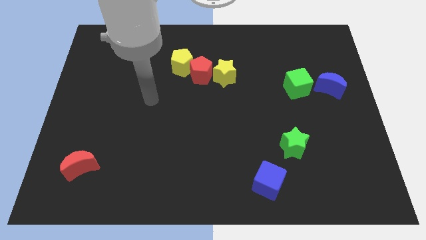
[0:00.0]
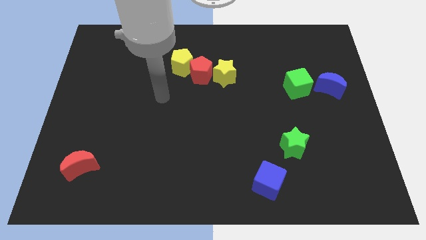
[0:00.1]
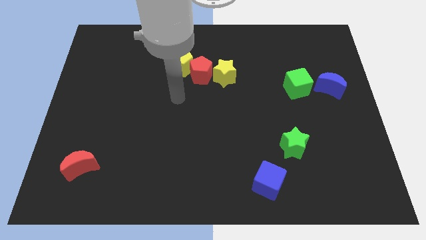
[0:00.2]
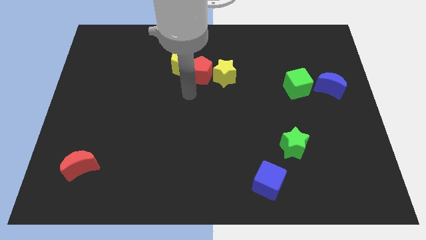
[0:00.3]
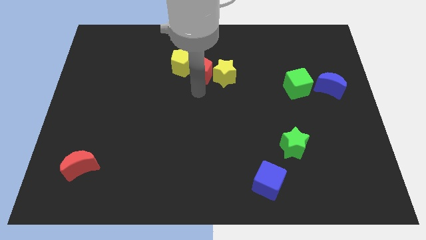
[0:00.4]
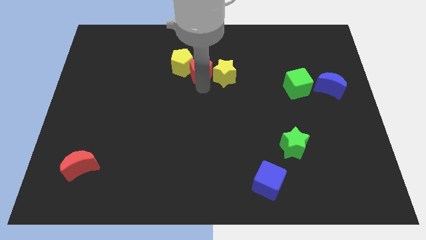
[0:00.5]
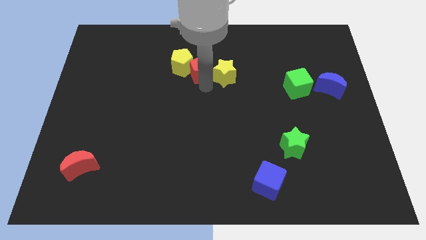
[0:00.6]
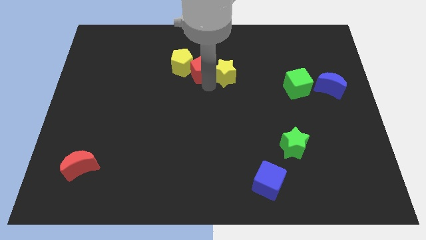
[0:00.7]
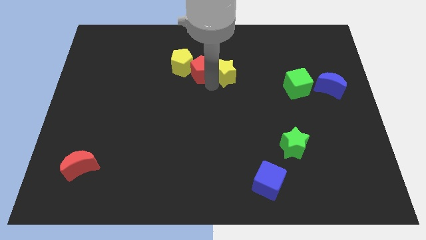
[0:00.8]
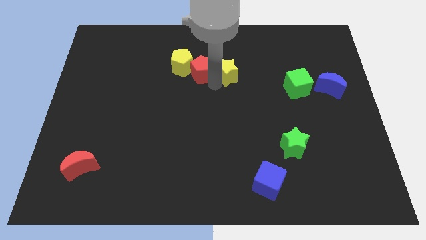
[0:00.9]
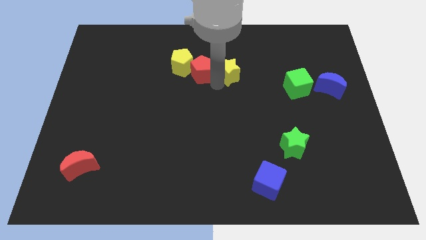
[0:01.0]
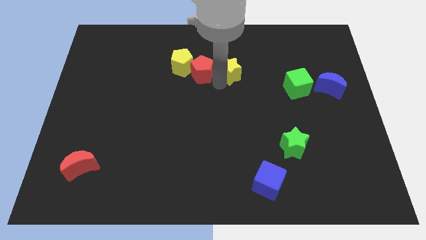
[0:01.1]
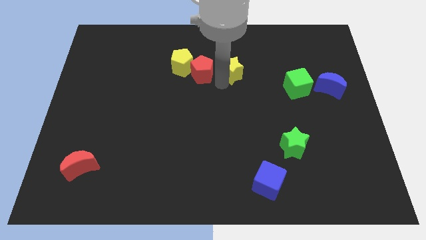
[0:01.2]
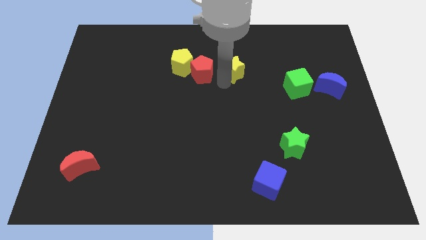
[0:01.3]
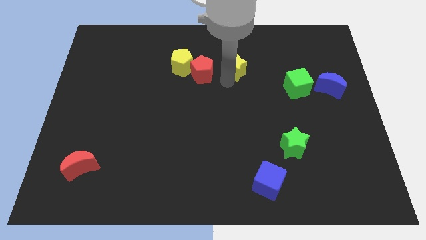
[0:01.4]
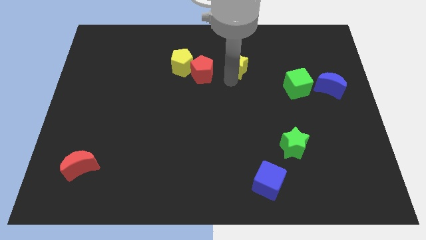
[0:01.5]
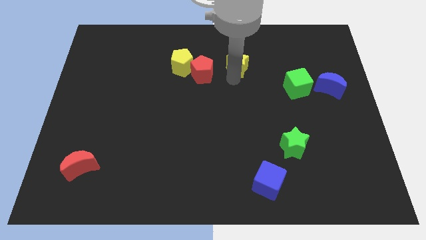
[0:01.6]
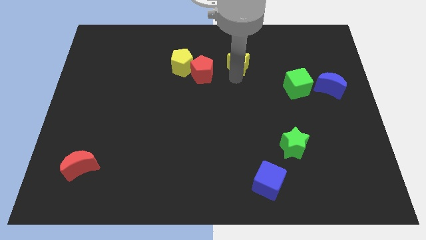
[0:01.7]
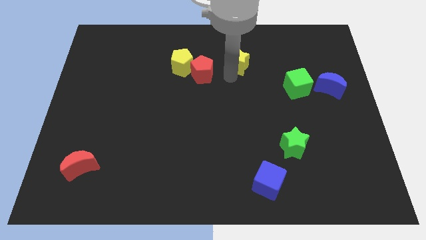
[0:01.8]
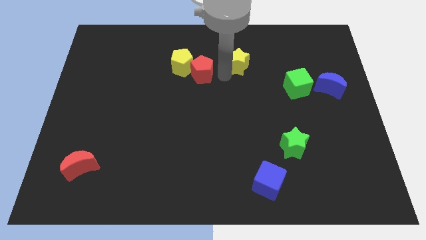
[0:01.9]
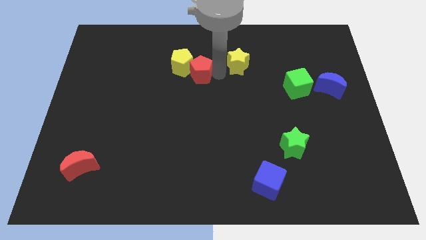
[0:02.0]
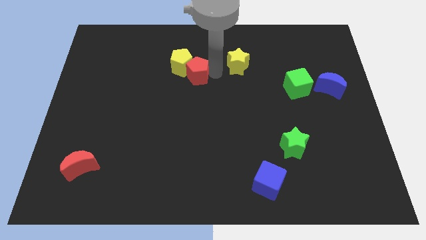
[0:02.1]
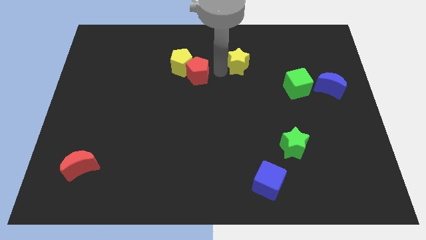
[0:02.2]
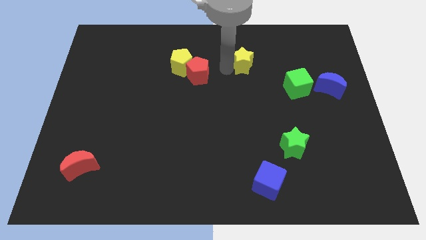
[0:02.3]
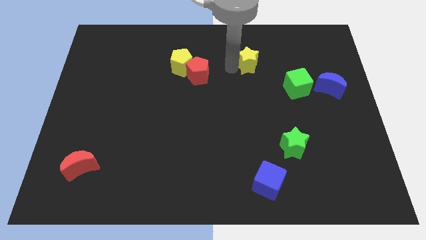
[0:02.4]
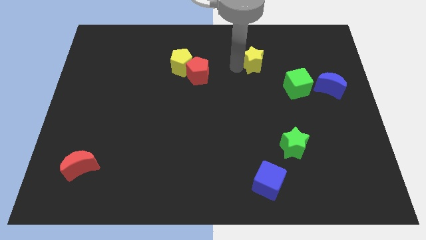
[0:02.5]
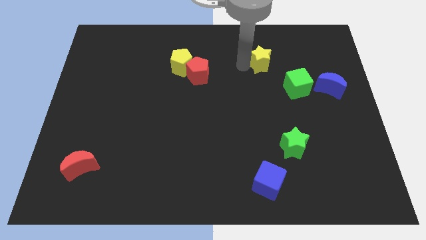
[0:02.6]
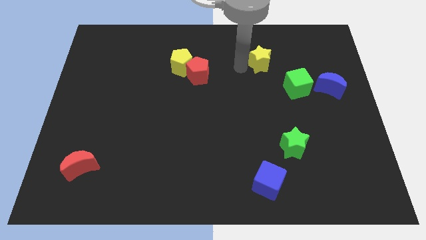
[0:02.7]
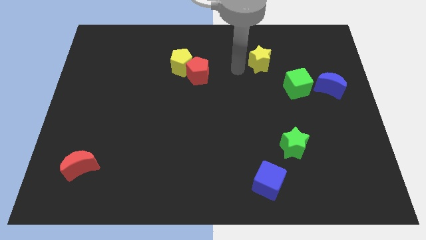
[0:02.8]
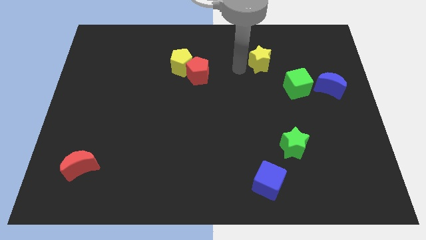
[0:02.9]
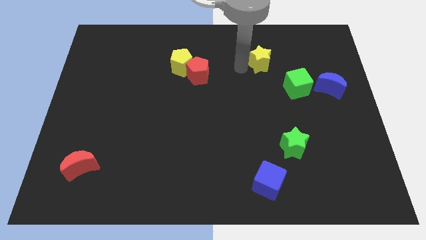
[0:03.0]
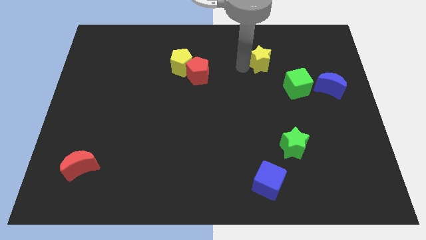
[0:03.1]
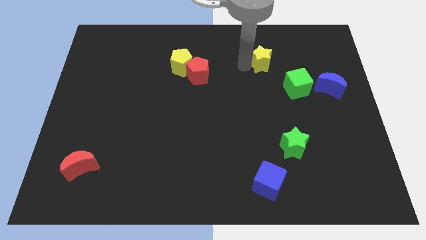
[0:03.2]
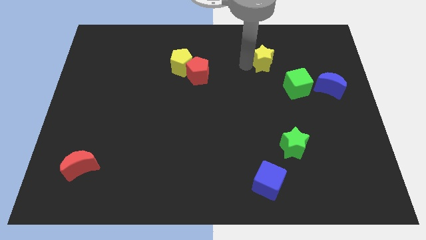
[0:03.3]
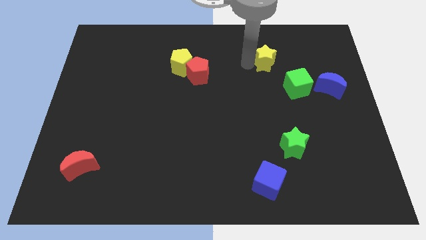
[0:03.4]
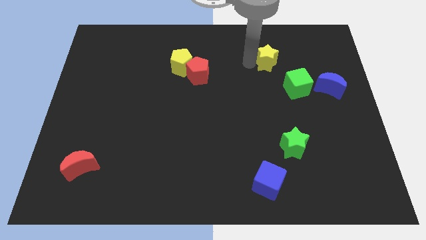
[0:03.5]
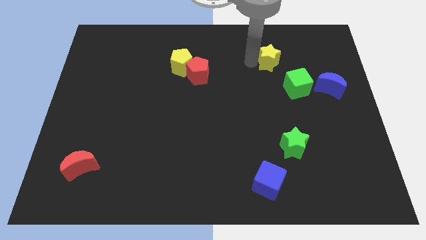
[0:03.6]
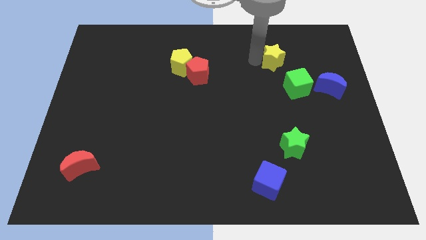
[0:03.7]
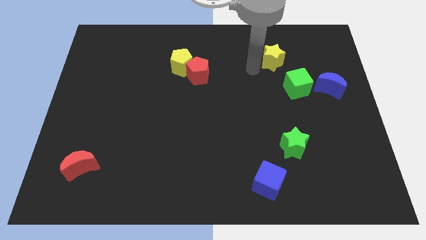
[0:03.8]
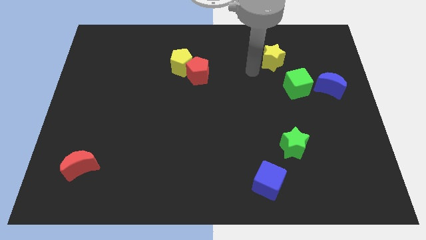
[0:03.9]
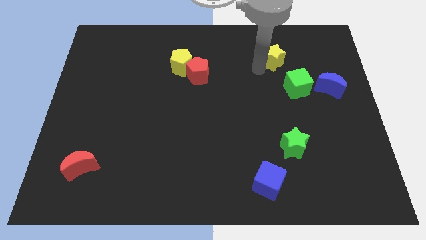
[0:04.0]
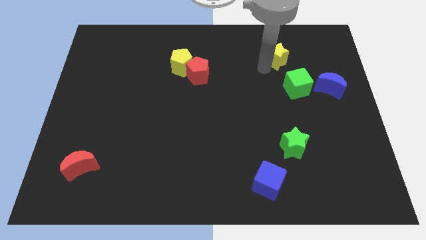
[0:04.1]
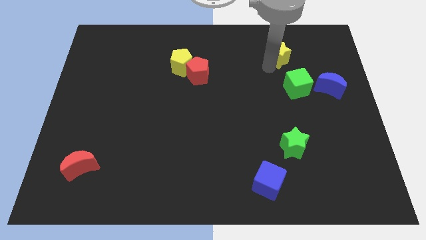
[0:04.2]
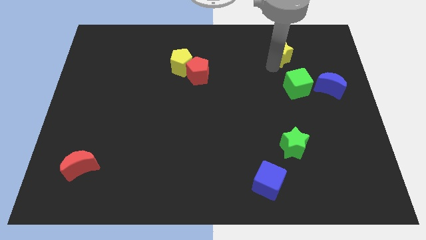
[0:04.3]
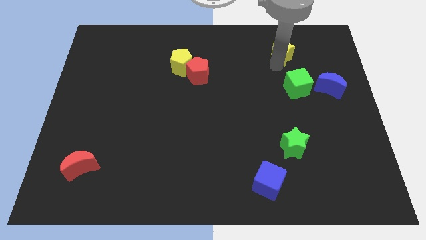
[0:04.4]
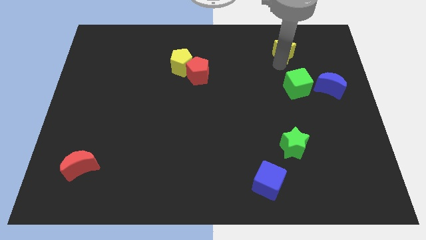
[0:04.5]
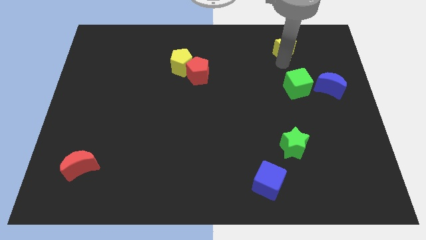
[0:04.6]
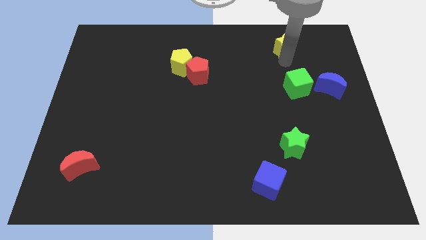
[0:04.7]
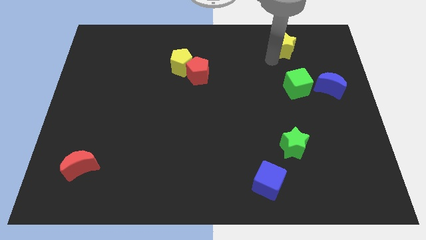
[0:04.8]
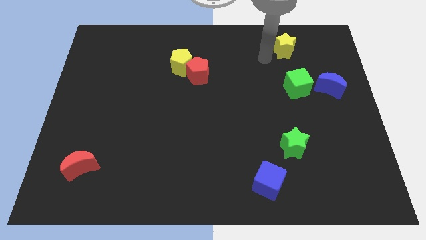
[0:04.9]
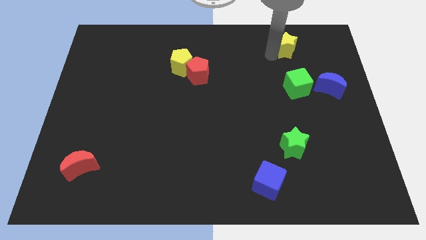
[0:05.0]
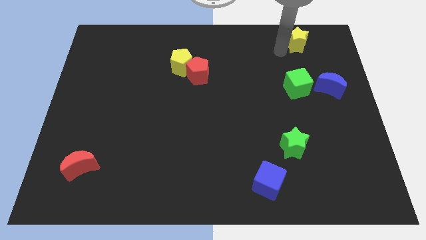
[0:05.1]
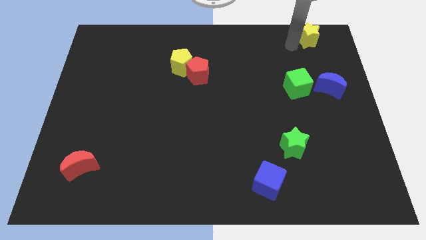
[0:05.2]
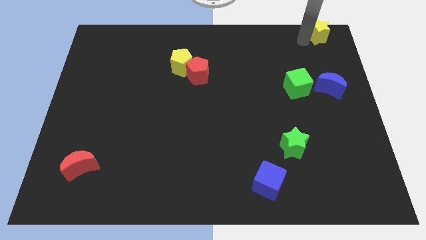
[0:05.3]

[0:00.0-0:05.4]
put the yellow star to the top right corner

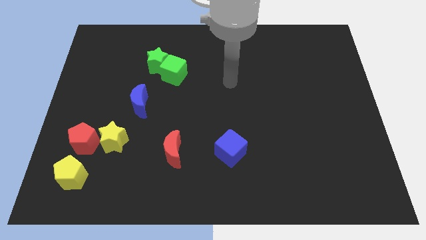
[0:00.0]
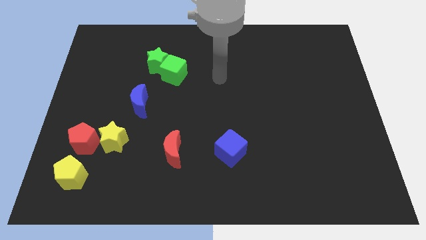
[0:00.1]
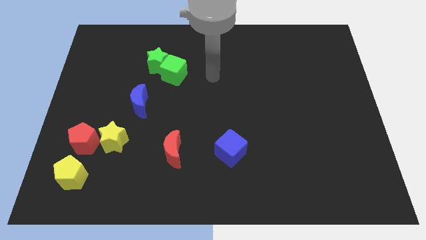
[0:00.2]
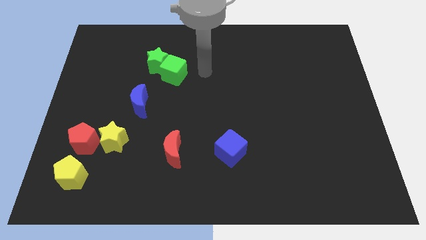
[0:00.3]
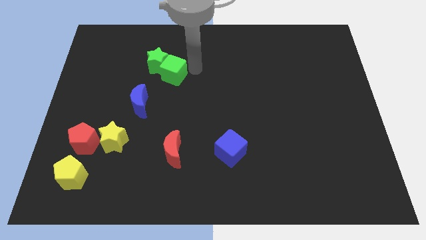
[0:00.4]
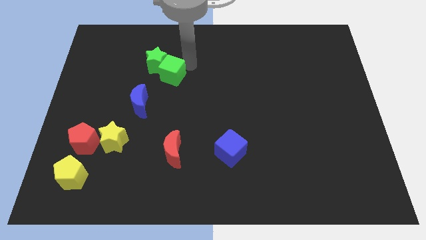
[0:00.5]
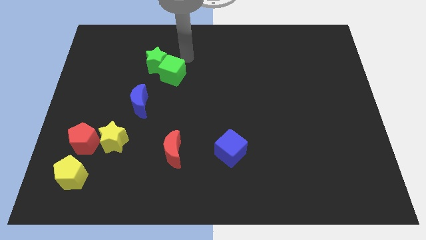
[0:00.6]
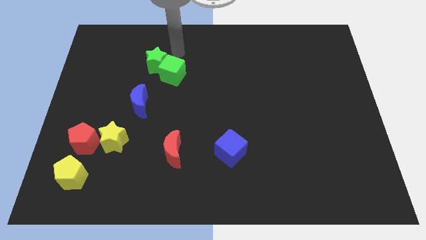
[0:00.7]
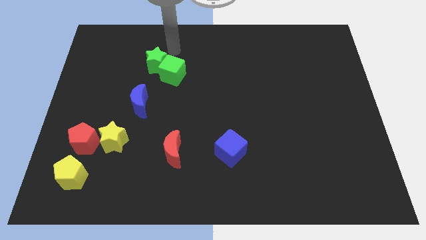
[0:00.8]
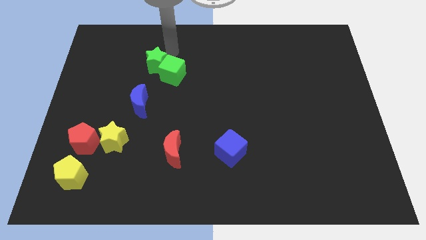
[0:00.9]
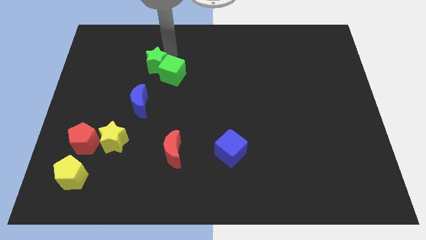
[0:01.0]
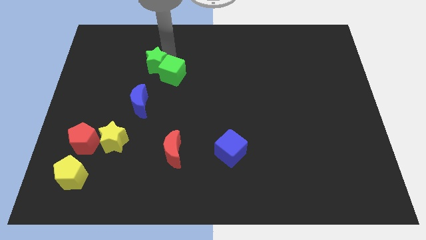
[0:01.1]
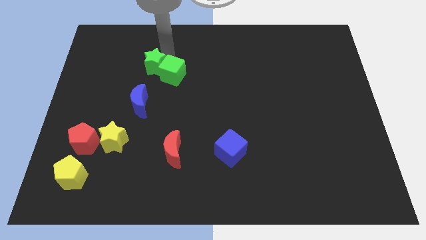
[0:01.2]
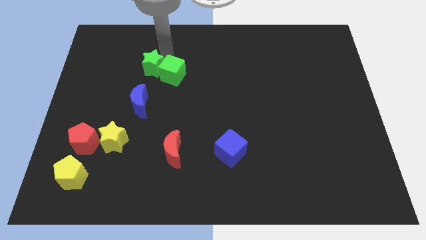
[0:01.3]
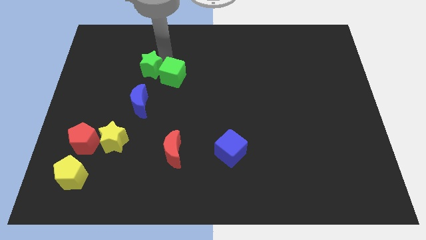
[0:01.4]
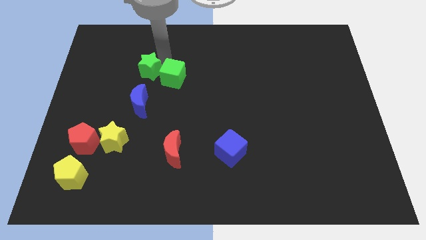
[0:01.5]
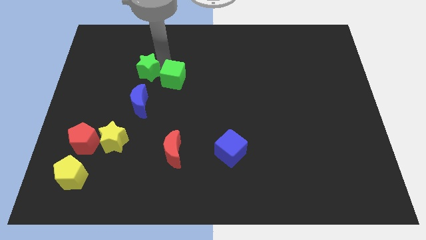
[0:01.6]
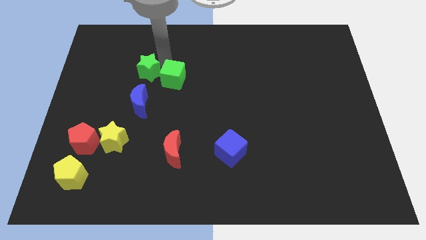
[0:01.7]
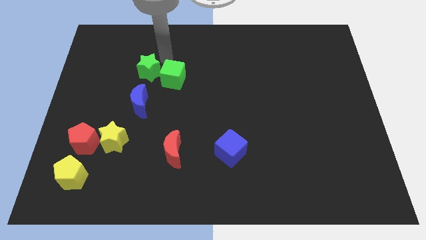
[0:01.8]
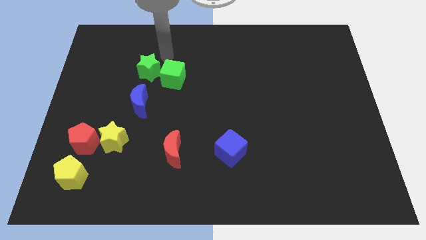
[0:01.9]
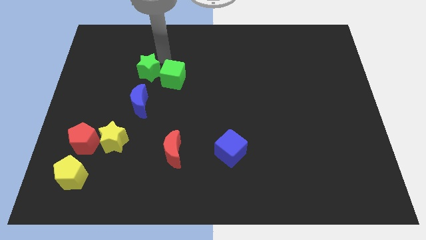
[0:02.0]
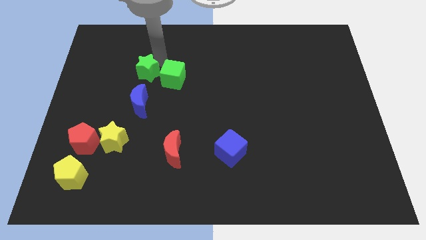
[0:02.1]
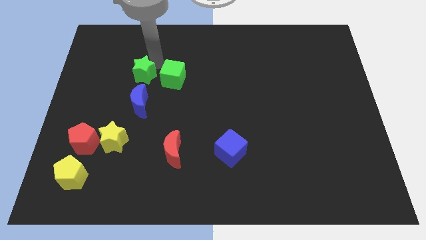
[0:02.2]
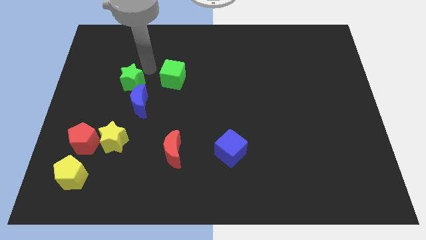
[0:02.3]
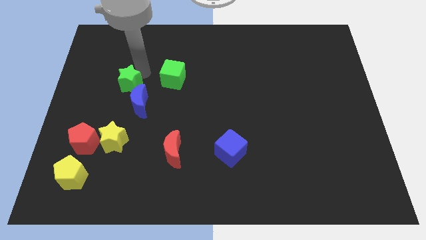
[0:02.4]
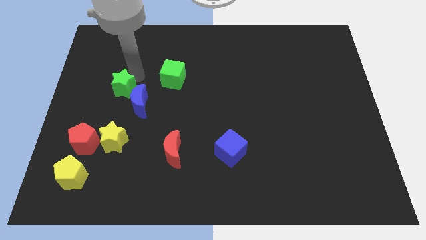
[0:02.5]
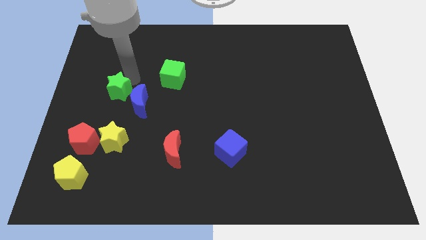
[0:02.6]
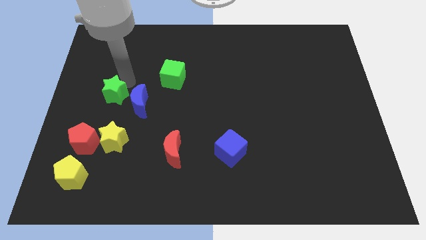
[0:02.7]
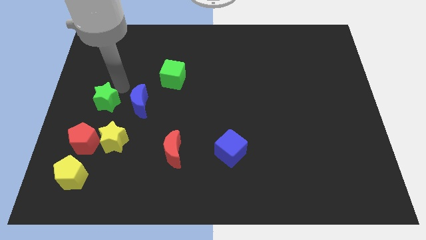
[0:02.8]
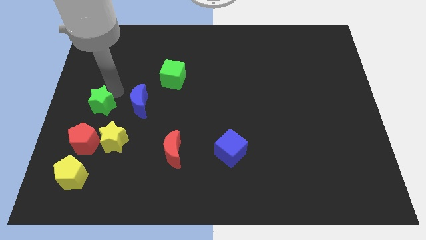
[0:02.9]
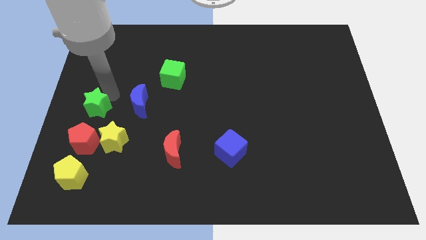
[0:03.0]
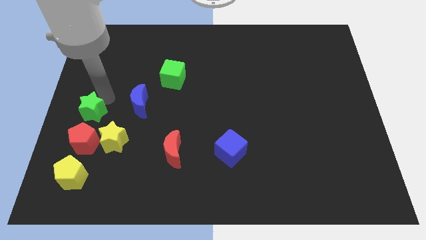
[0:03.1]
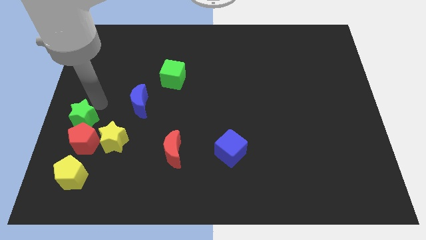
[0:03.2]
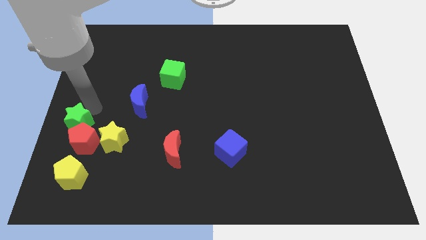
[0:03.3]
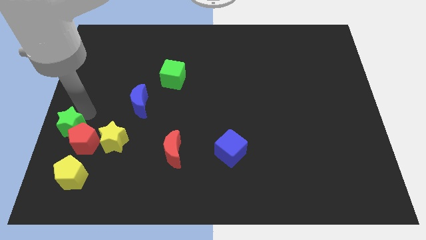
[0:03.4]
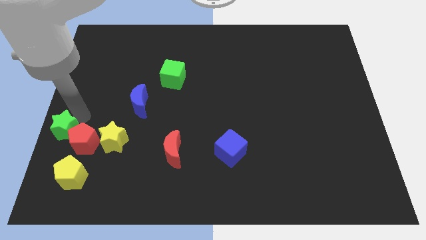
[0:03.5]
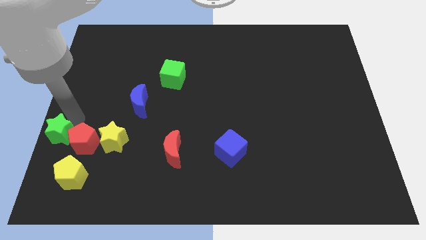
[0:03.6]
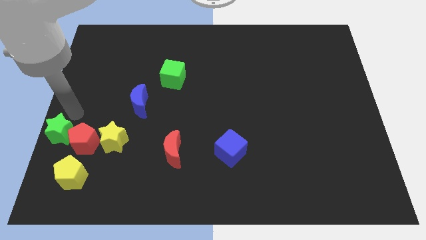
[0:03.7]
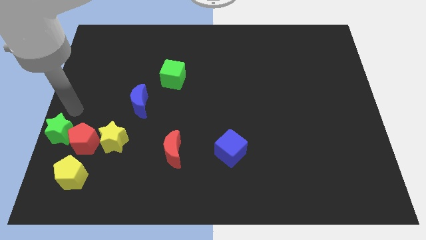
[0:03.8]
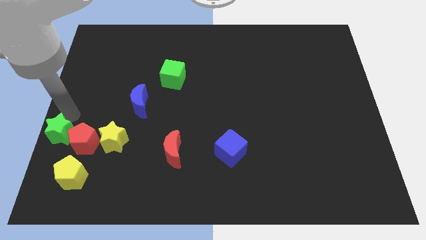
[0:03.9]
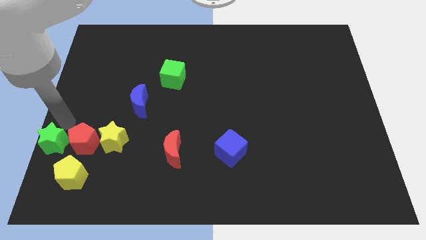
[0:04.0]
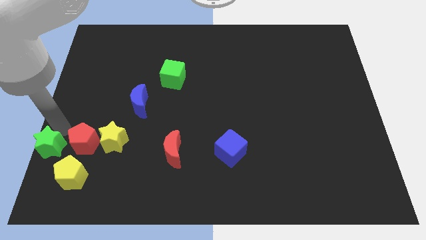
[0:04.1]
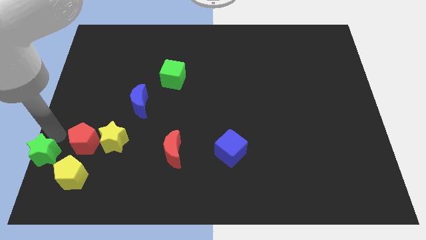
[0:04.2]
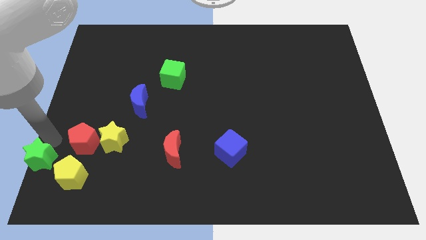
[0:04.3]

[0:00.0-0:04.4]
move the green star to the lower left corner
